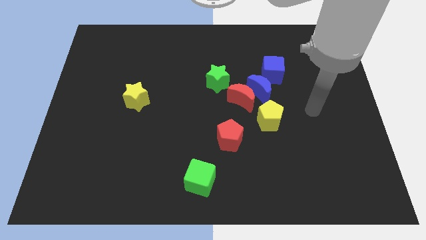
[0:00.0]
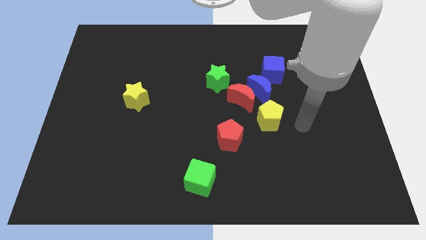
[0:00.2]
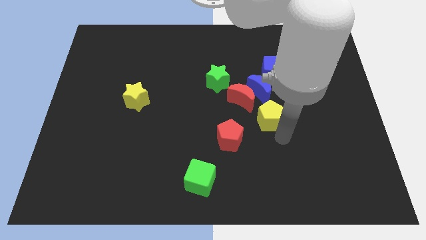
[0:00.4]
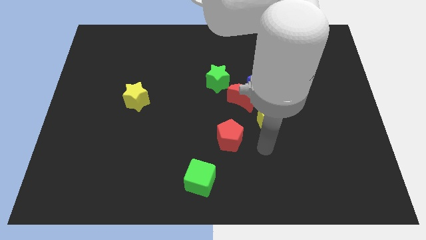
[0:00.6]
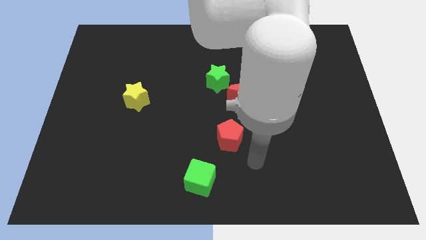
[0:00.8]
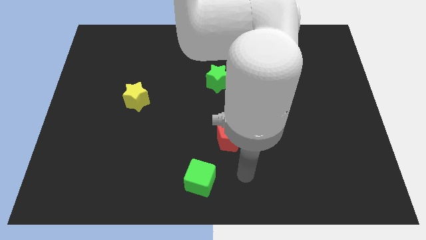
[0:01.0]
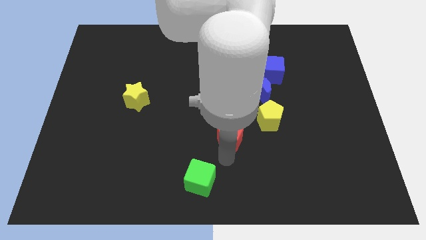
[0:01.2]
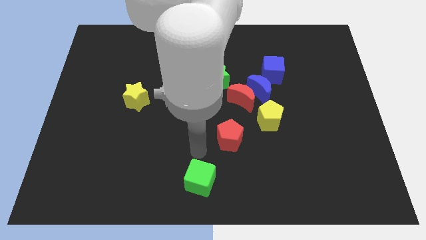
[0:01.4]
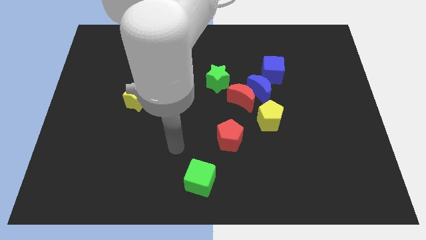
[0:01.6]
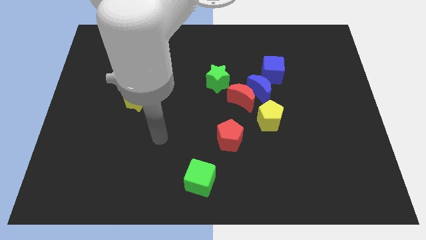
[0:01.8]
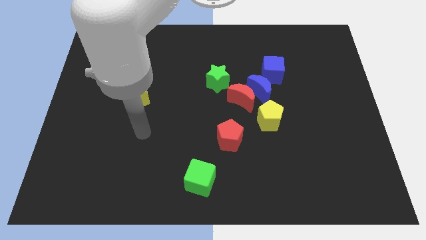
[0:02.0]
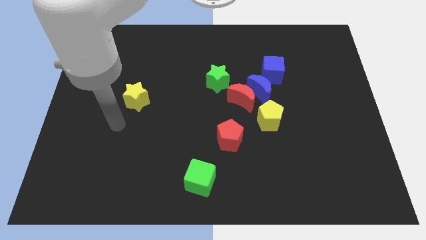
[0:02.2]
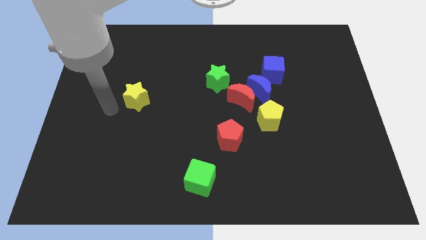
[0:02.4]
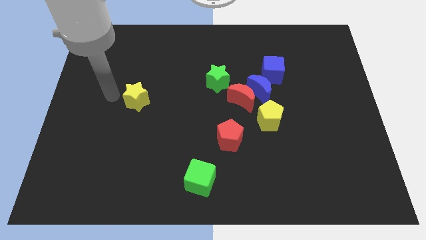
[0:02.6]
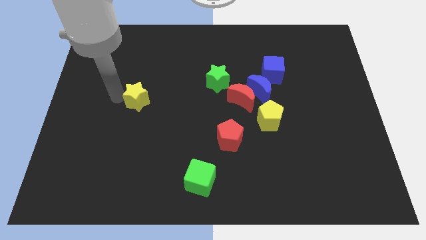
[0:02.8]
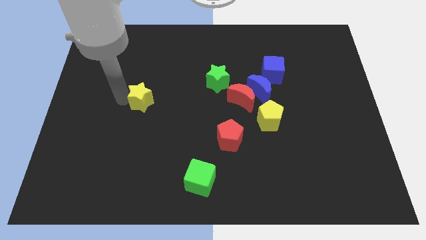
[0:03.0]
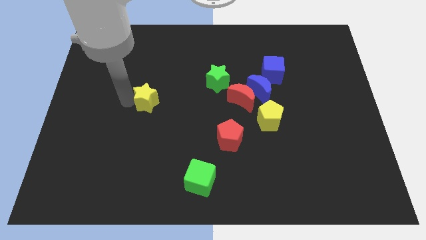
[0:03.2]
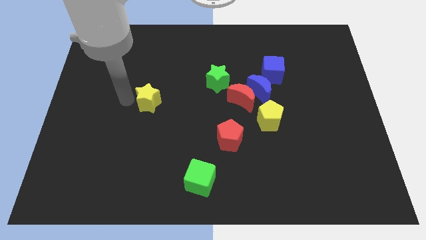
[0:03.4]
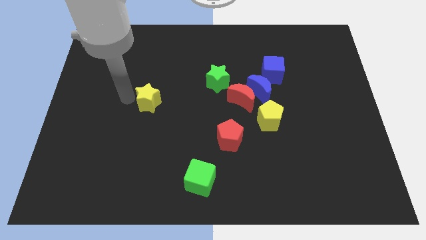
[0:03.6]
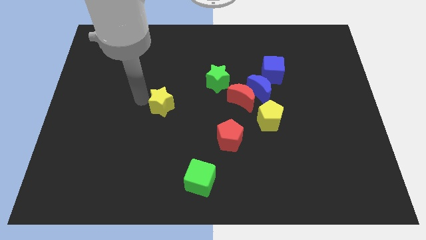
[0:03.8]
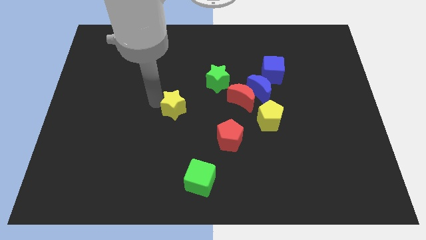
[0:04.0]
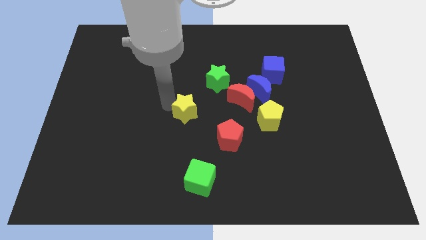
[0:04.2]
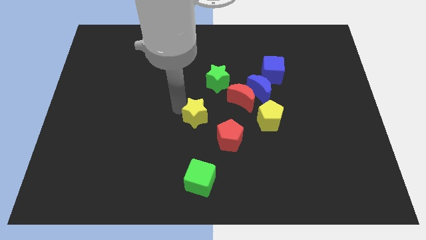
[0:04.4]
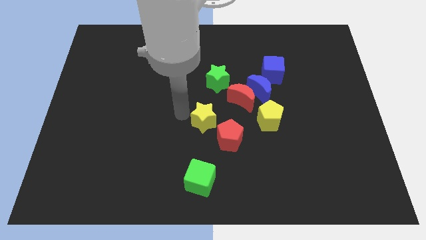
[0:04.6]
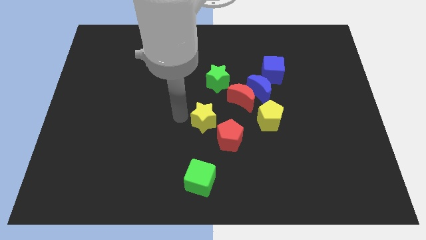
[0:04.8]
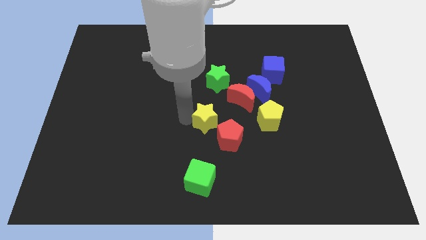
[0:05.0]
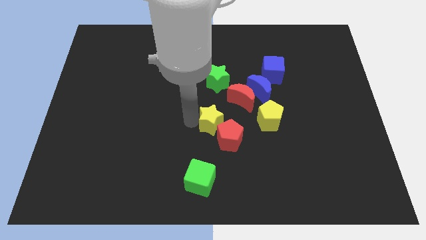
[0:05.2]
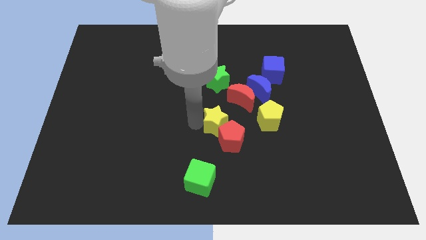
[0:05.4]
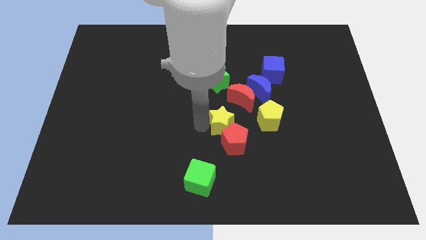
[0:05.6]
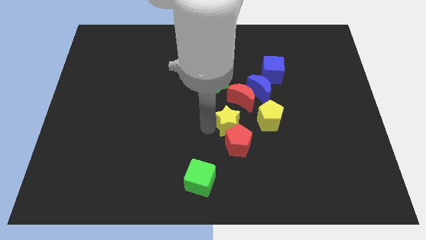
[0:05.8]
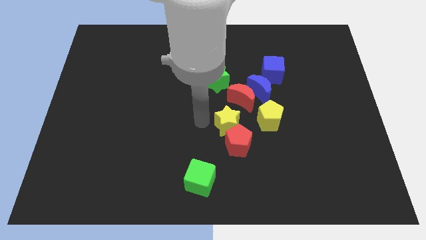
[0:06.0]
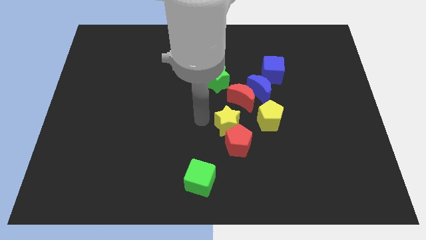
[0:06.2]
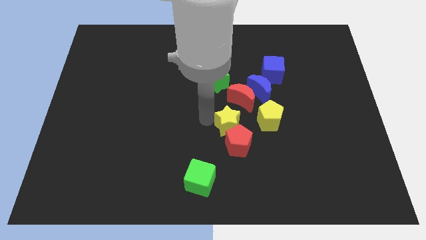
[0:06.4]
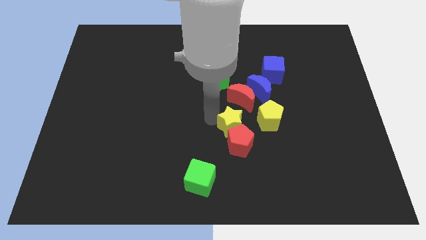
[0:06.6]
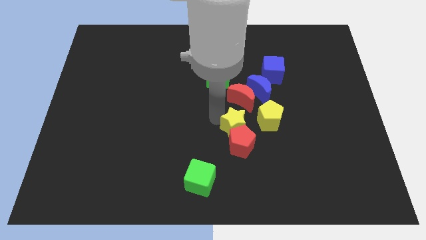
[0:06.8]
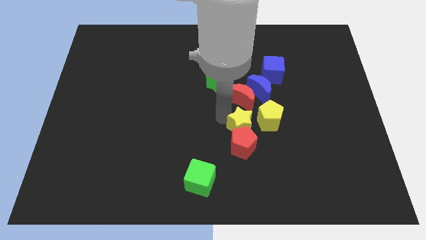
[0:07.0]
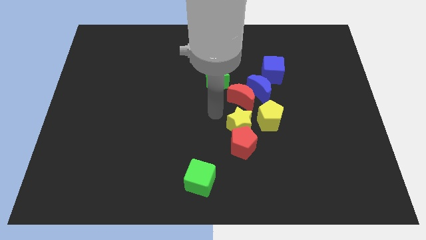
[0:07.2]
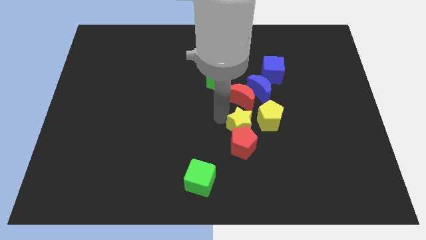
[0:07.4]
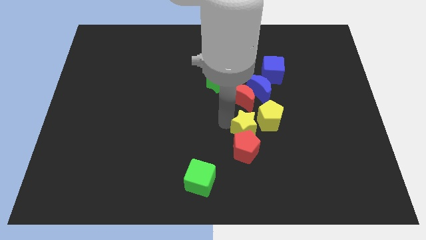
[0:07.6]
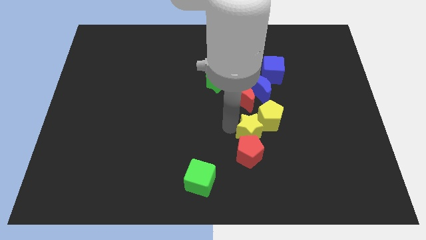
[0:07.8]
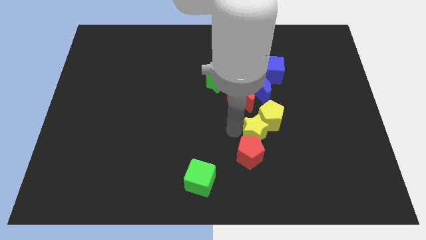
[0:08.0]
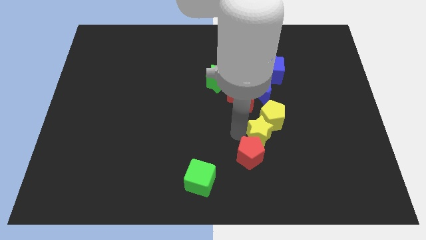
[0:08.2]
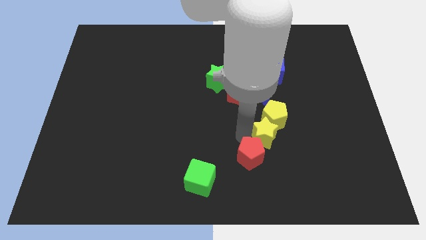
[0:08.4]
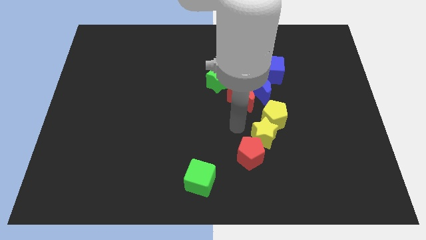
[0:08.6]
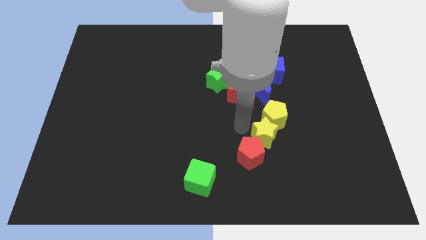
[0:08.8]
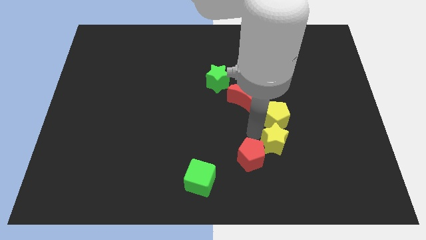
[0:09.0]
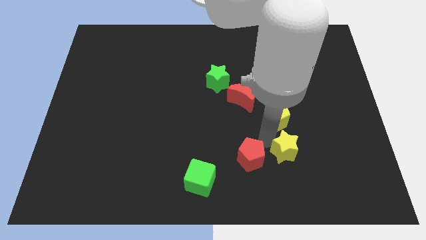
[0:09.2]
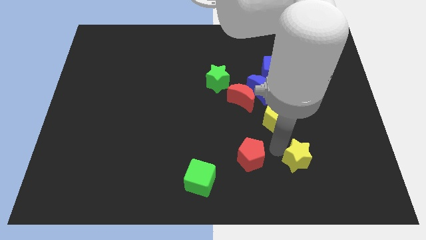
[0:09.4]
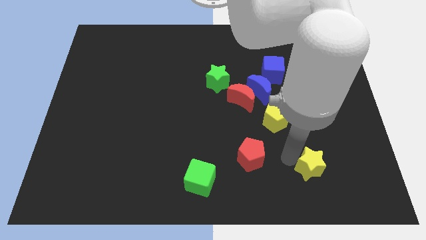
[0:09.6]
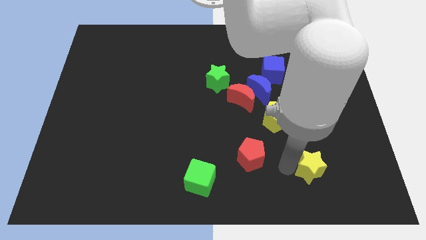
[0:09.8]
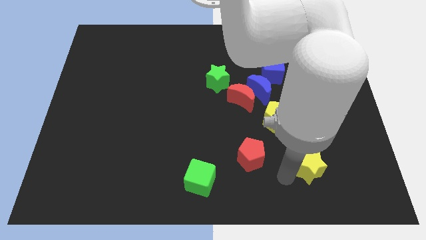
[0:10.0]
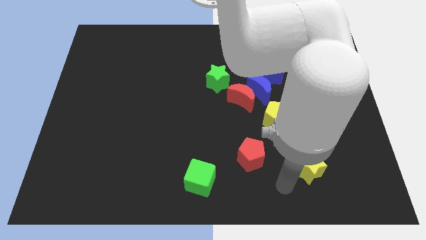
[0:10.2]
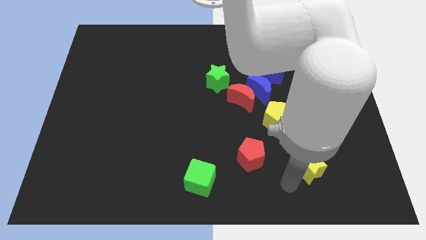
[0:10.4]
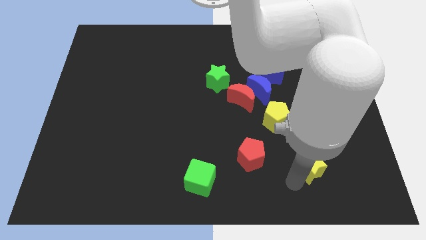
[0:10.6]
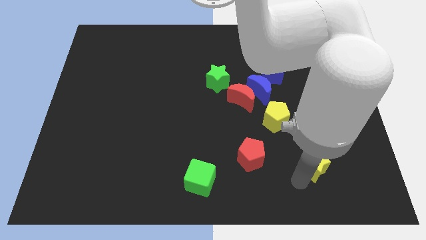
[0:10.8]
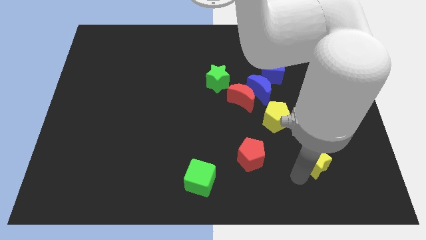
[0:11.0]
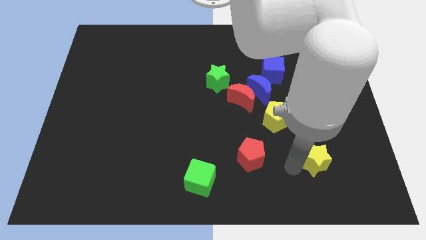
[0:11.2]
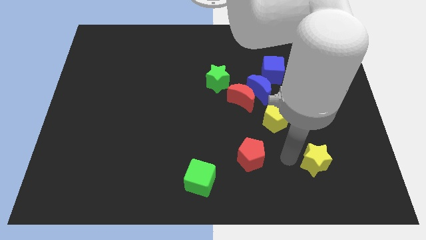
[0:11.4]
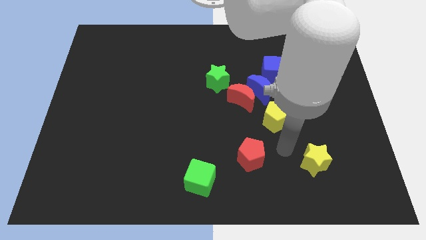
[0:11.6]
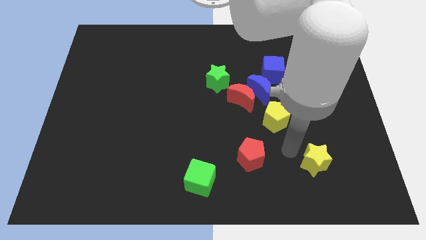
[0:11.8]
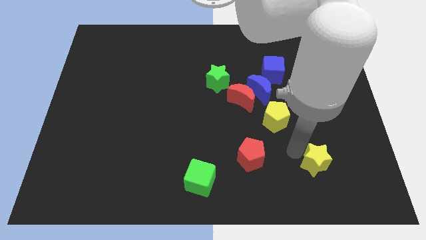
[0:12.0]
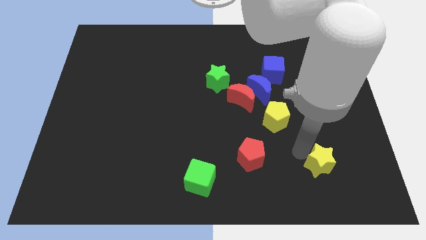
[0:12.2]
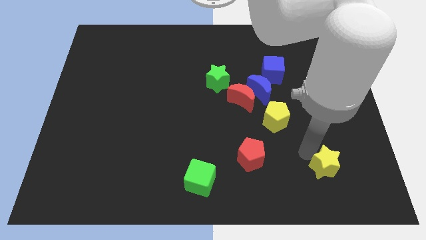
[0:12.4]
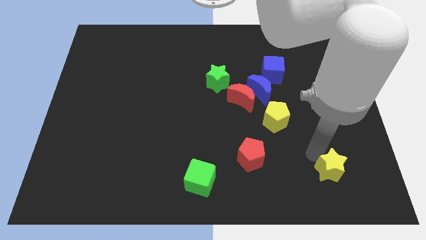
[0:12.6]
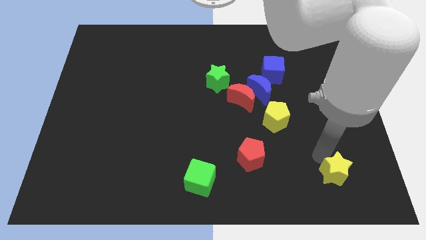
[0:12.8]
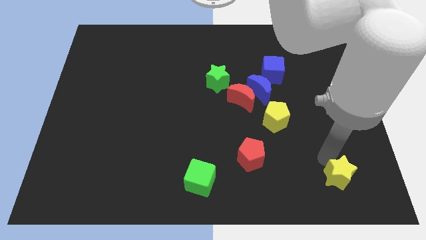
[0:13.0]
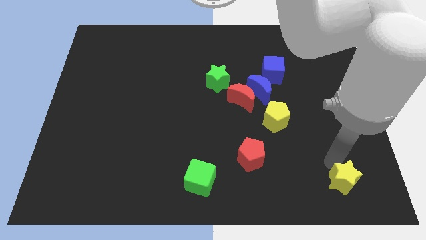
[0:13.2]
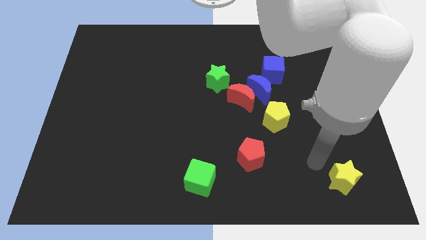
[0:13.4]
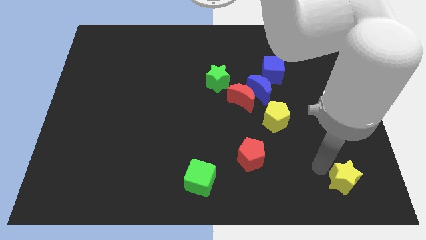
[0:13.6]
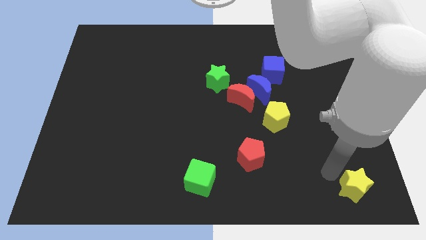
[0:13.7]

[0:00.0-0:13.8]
put the yellow star to the lower right corner

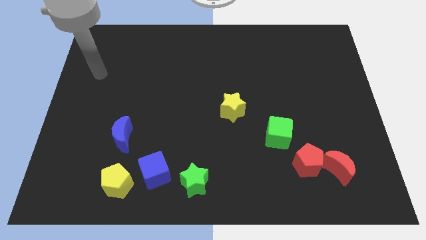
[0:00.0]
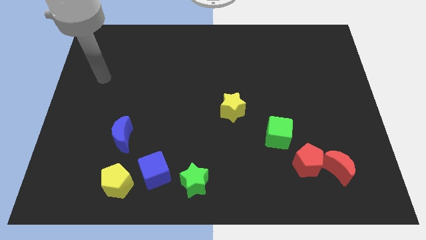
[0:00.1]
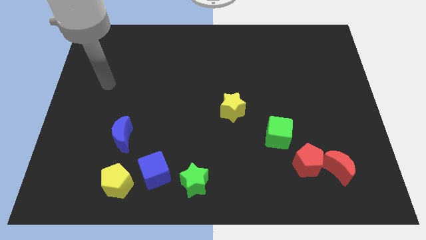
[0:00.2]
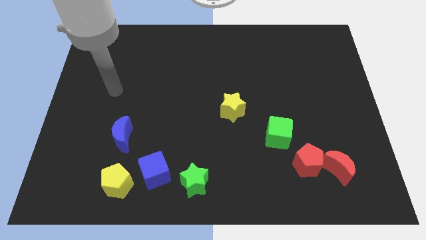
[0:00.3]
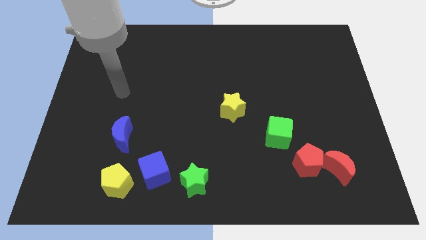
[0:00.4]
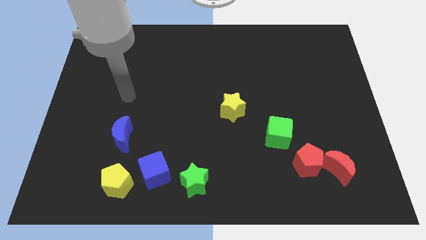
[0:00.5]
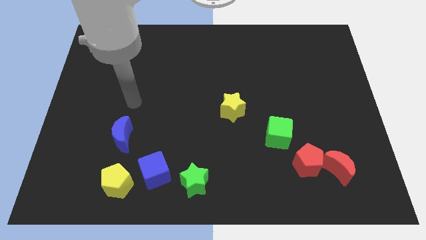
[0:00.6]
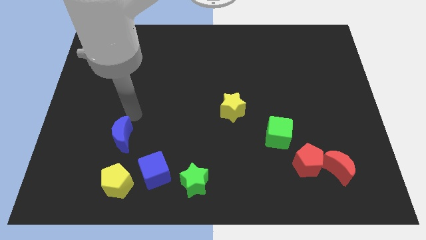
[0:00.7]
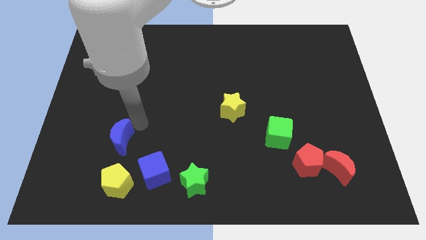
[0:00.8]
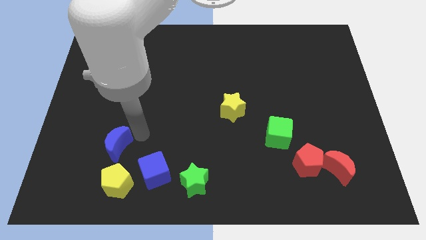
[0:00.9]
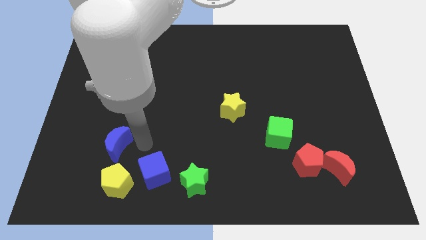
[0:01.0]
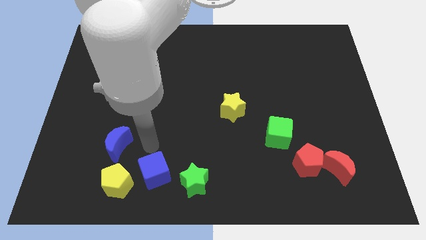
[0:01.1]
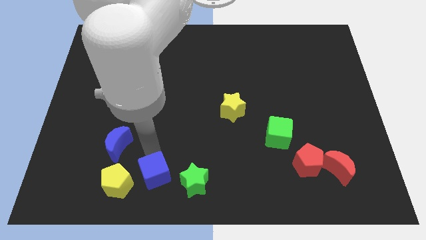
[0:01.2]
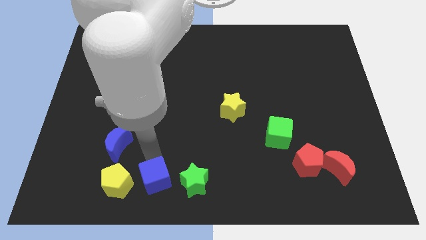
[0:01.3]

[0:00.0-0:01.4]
move the blue cube to the bottom
